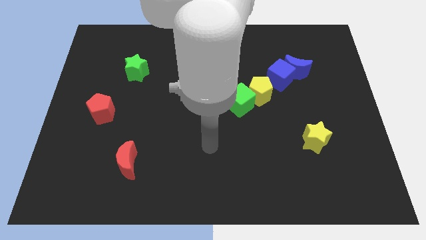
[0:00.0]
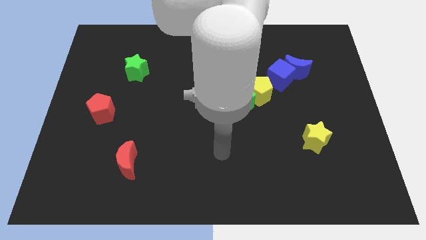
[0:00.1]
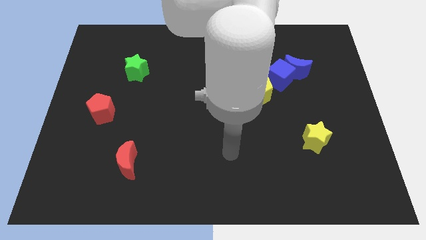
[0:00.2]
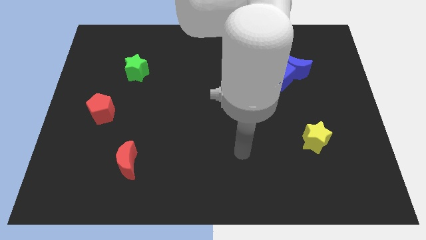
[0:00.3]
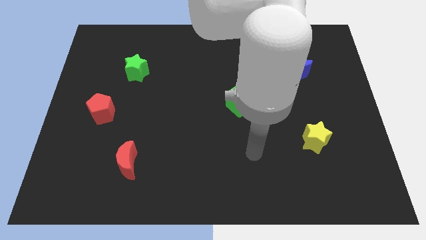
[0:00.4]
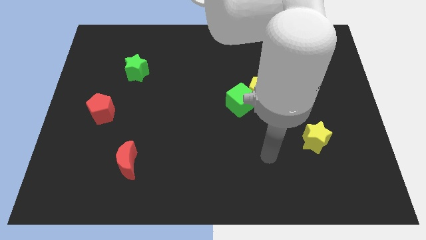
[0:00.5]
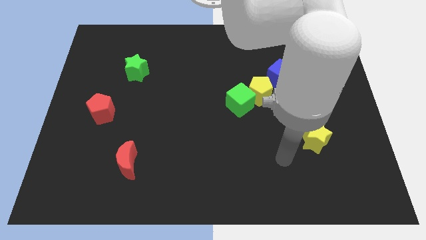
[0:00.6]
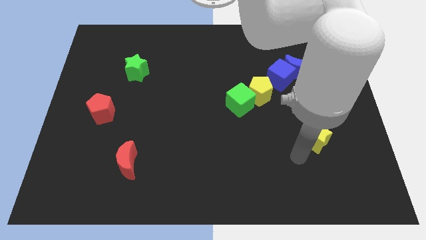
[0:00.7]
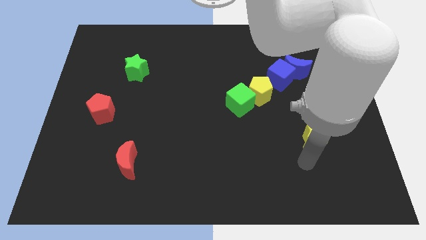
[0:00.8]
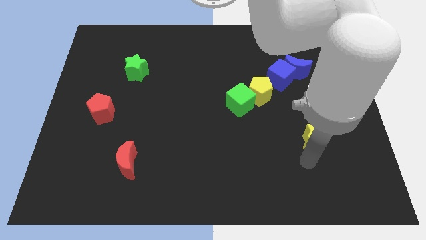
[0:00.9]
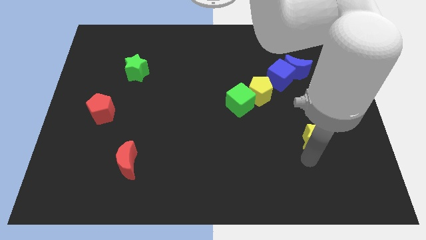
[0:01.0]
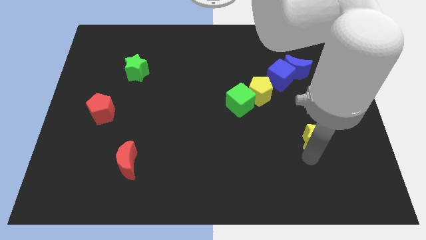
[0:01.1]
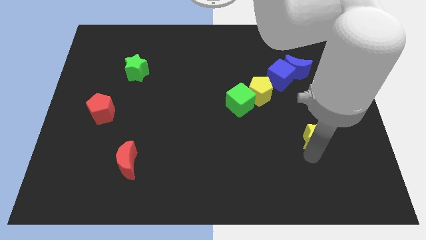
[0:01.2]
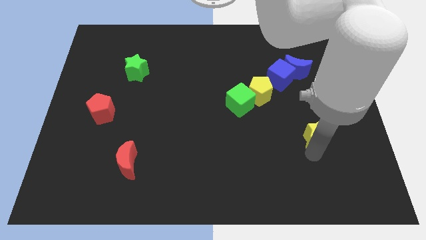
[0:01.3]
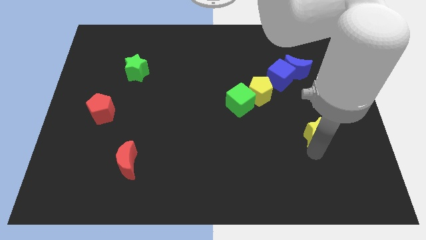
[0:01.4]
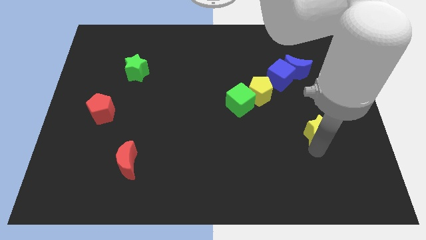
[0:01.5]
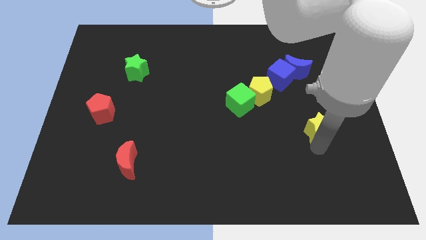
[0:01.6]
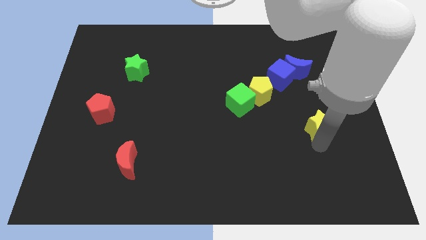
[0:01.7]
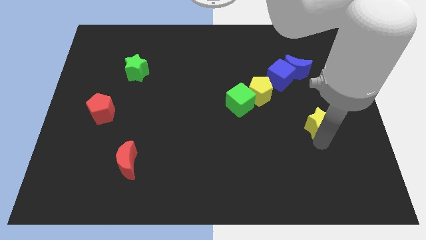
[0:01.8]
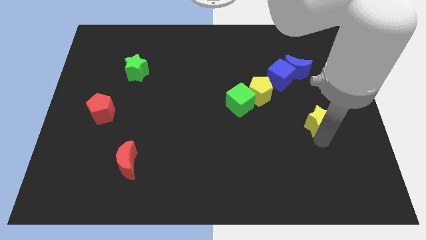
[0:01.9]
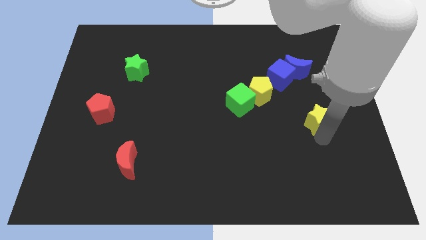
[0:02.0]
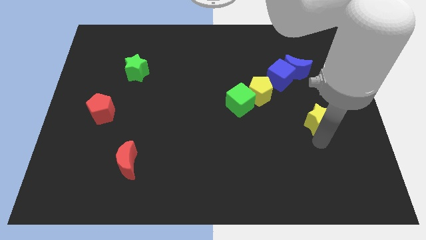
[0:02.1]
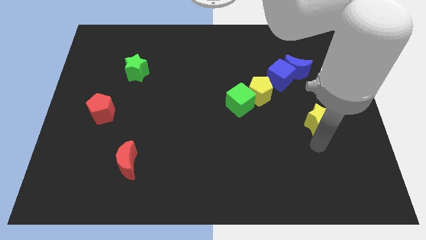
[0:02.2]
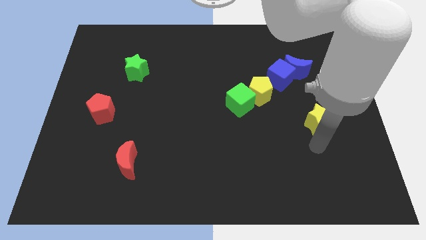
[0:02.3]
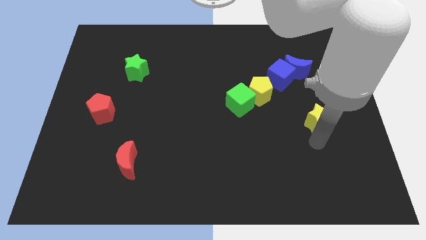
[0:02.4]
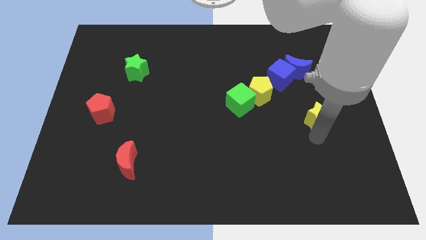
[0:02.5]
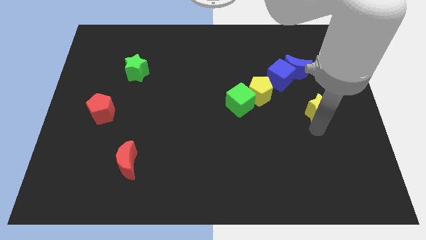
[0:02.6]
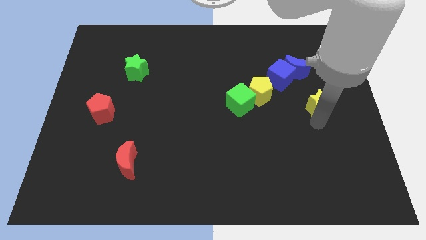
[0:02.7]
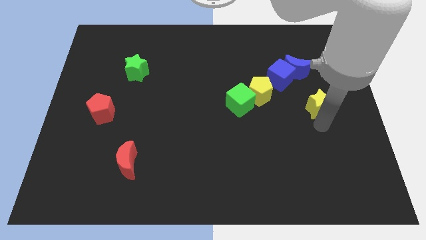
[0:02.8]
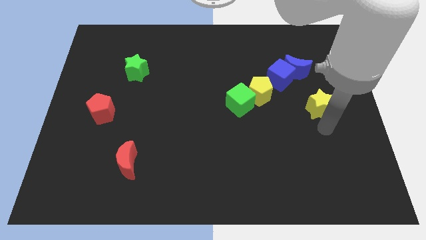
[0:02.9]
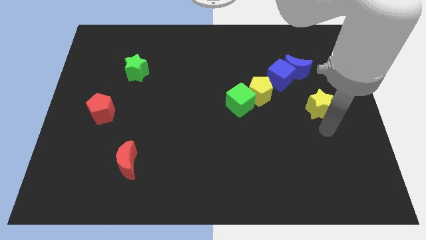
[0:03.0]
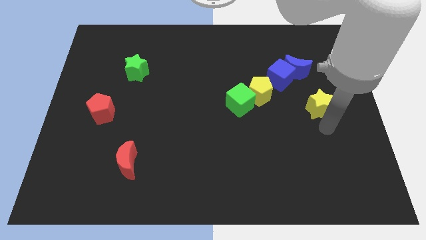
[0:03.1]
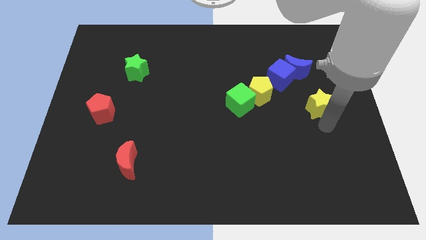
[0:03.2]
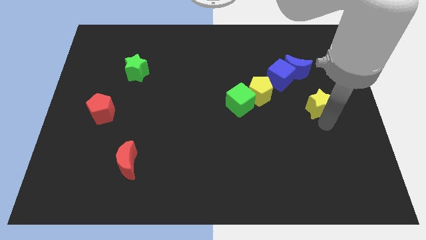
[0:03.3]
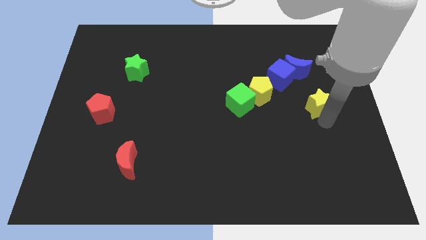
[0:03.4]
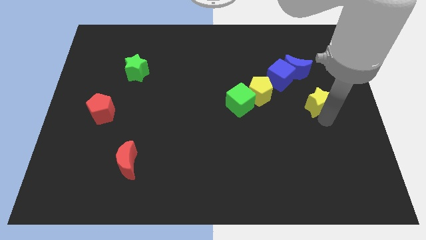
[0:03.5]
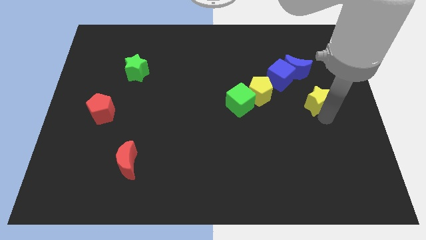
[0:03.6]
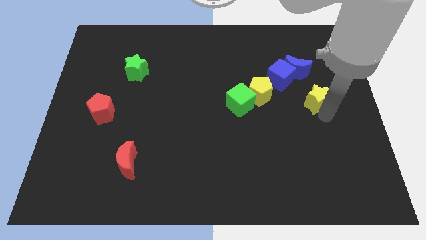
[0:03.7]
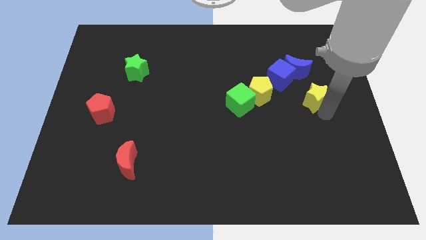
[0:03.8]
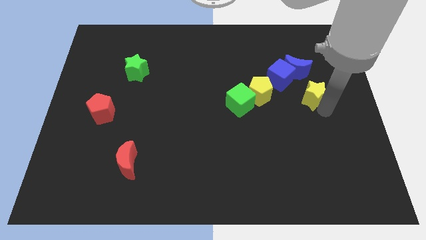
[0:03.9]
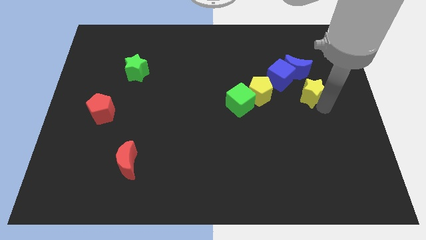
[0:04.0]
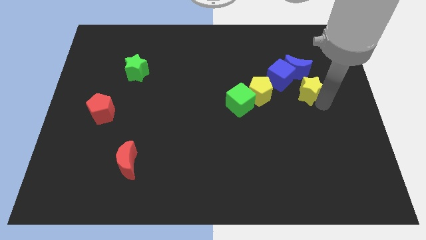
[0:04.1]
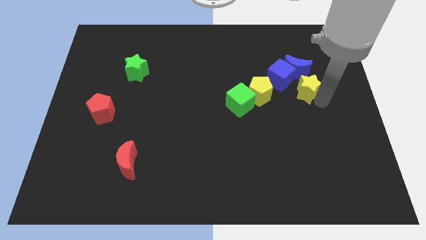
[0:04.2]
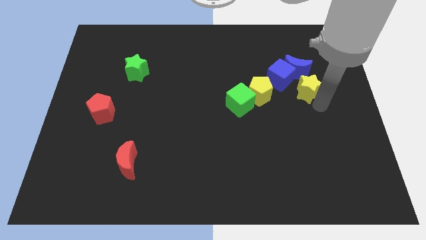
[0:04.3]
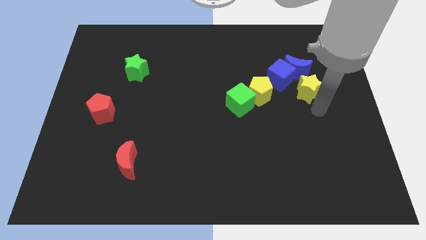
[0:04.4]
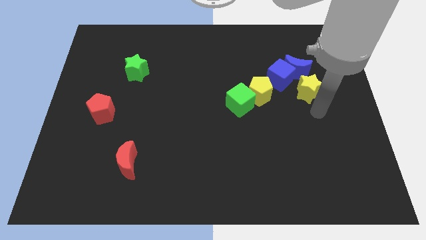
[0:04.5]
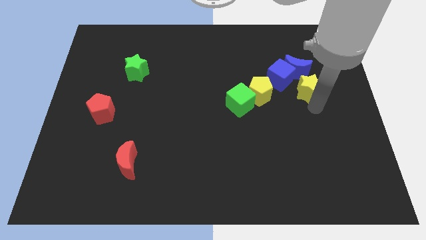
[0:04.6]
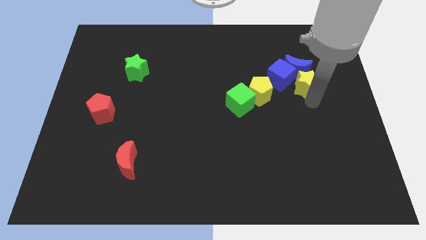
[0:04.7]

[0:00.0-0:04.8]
push the yellow star close to the blue moon

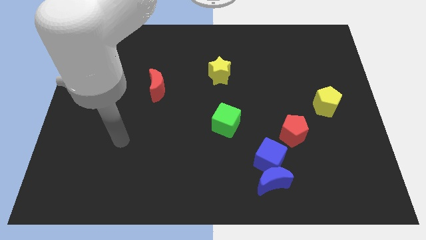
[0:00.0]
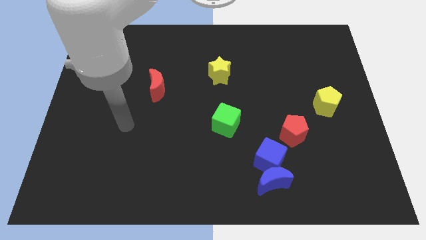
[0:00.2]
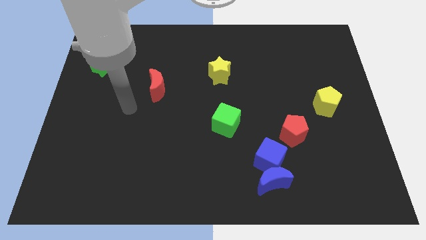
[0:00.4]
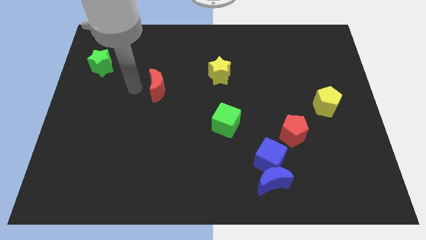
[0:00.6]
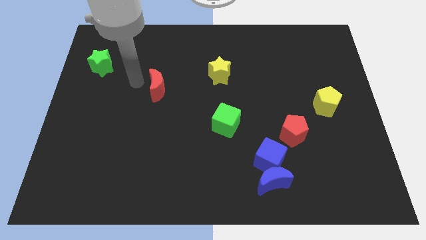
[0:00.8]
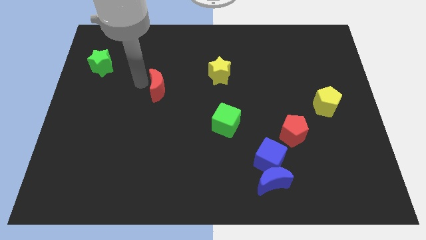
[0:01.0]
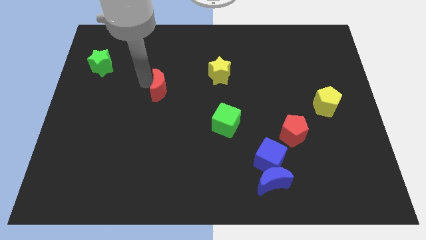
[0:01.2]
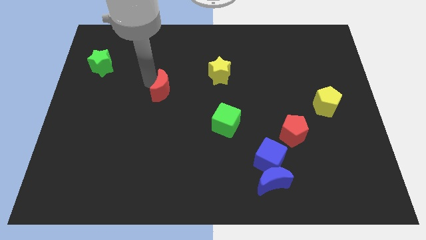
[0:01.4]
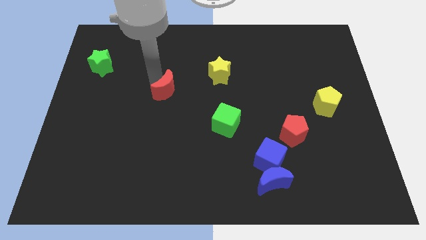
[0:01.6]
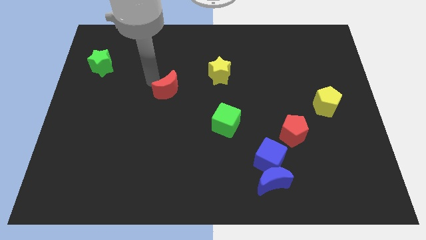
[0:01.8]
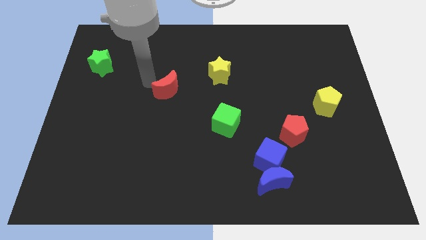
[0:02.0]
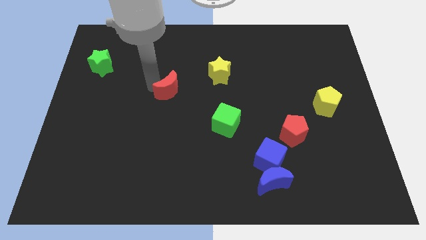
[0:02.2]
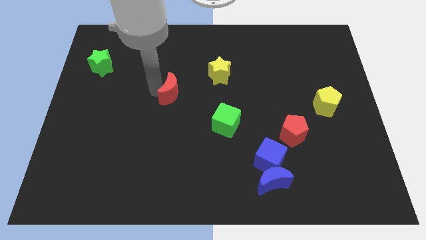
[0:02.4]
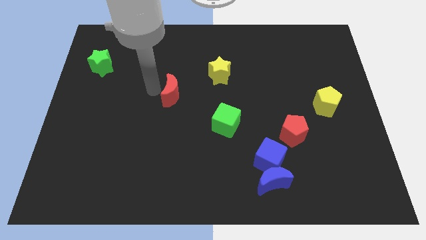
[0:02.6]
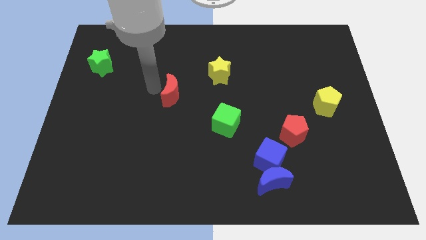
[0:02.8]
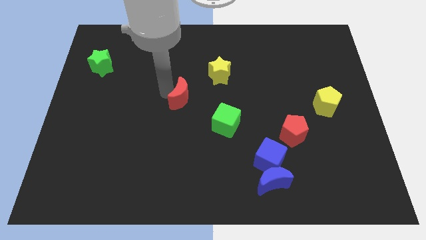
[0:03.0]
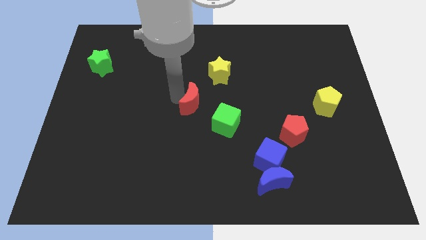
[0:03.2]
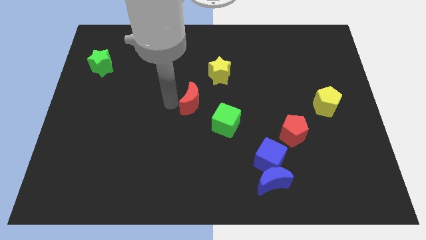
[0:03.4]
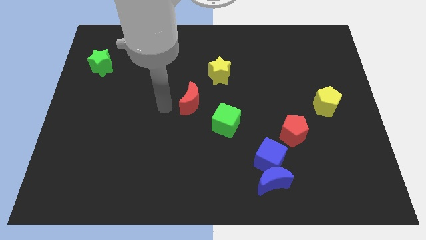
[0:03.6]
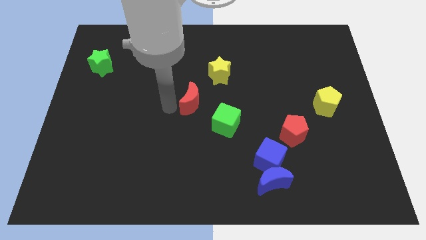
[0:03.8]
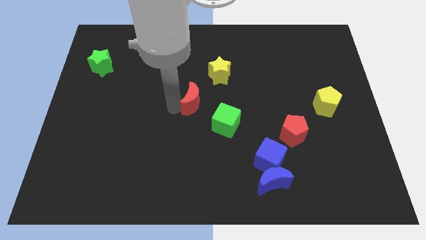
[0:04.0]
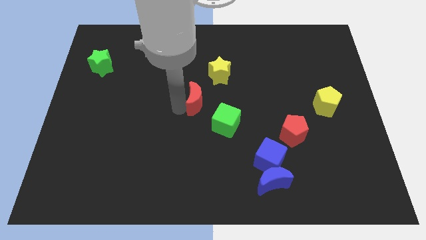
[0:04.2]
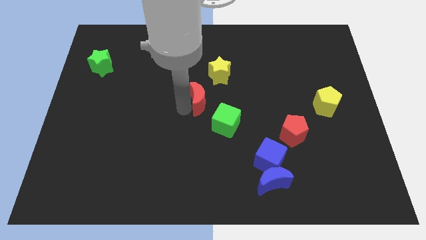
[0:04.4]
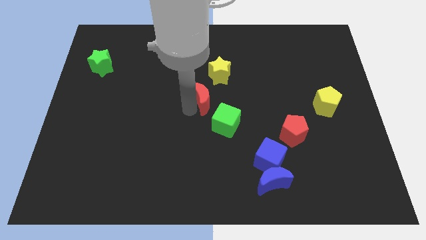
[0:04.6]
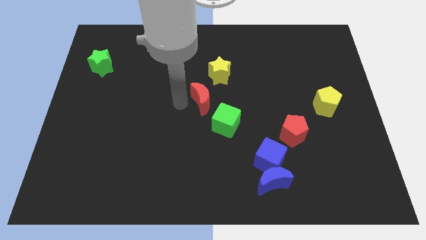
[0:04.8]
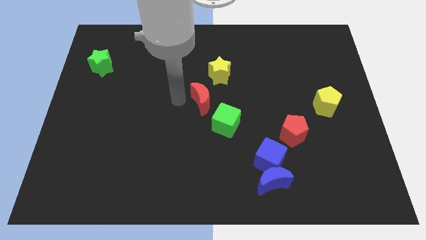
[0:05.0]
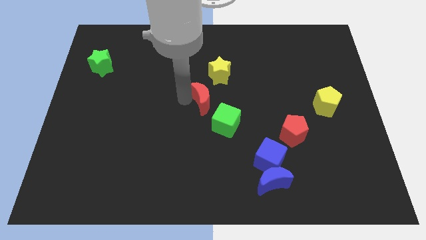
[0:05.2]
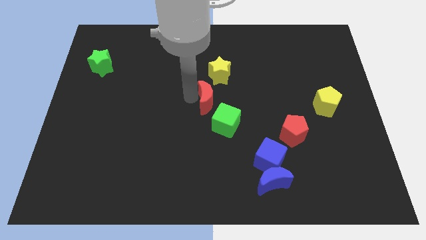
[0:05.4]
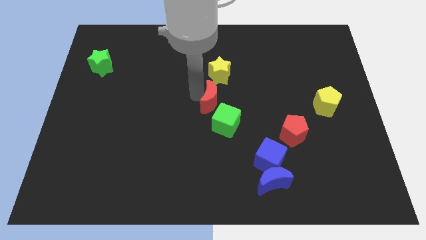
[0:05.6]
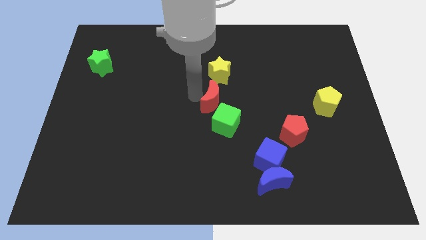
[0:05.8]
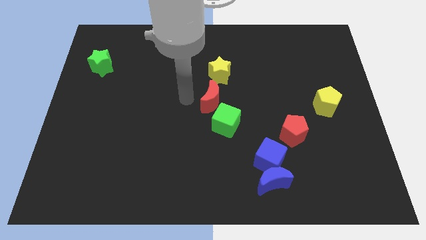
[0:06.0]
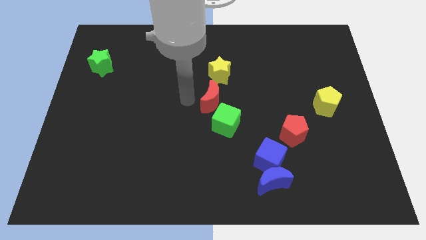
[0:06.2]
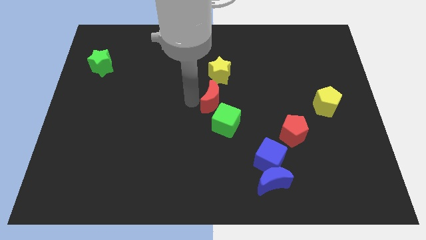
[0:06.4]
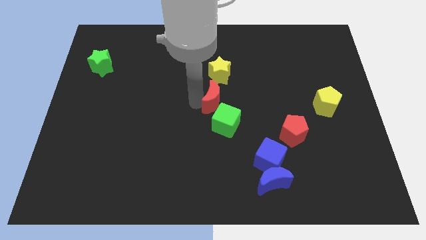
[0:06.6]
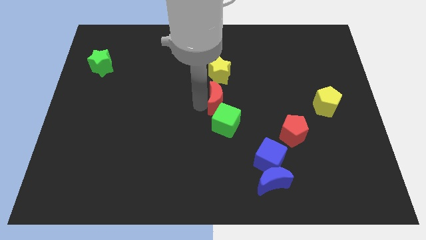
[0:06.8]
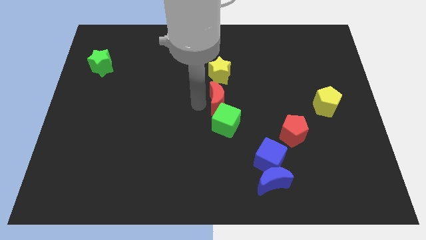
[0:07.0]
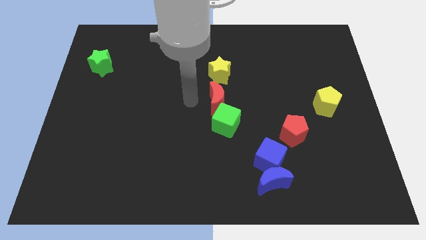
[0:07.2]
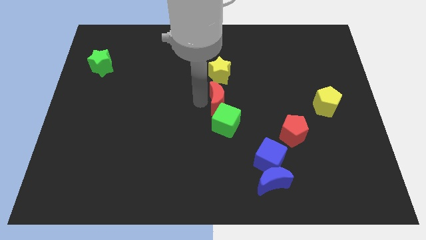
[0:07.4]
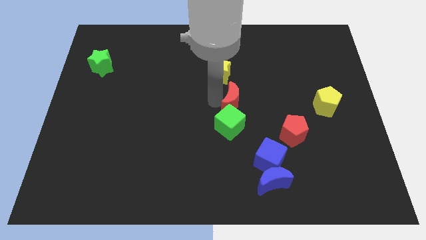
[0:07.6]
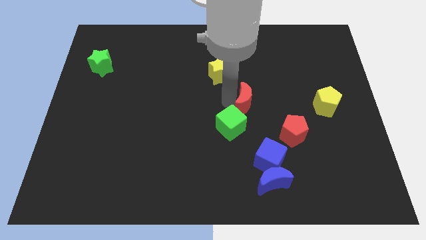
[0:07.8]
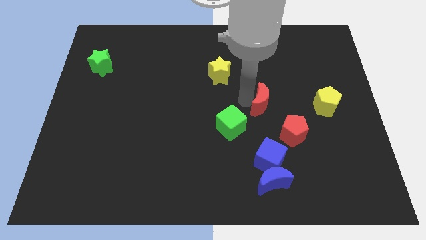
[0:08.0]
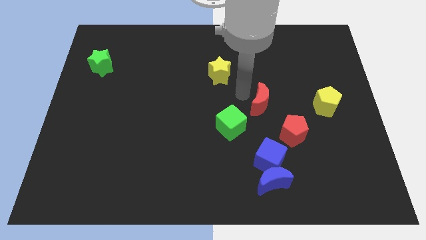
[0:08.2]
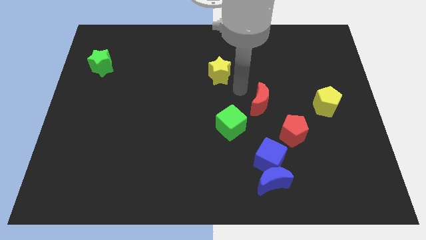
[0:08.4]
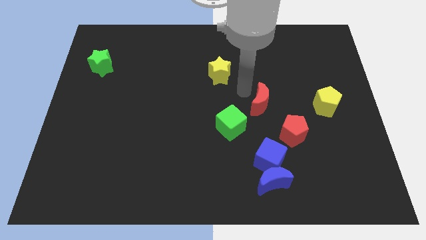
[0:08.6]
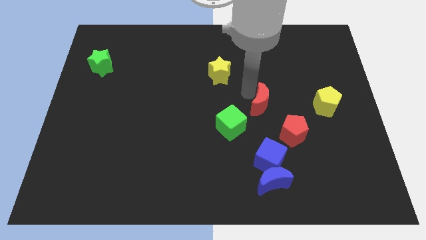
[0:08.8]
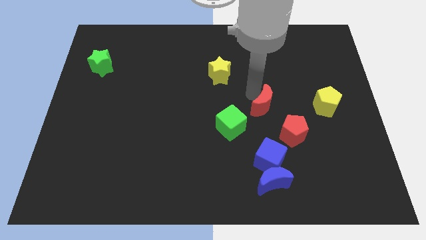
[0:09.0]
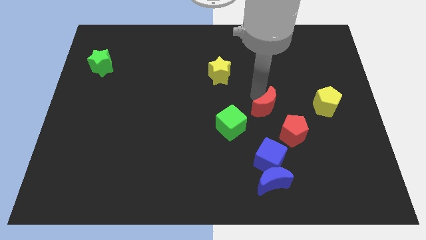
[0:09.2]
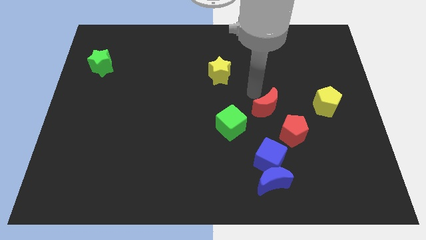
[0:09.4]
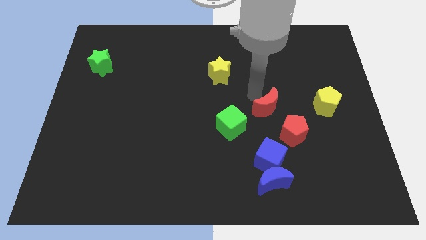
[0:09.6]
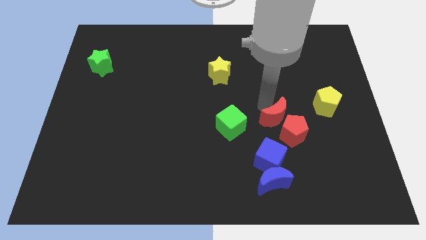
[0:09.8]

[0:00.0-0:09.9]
slide the red moon close to the red pentagon
